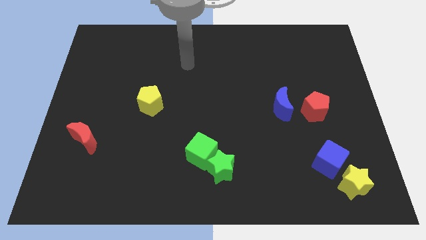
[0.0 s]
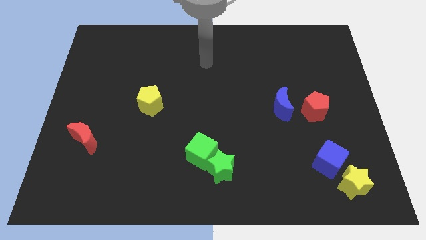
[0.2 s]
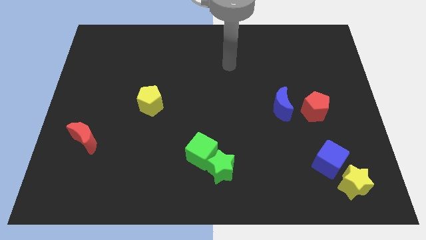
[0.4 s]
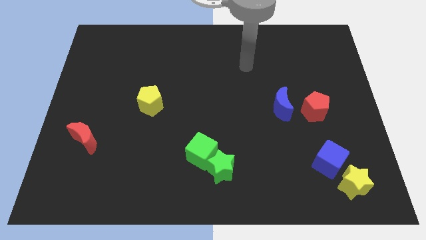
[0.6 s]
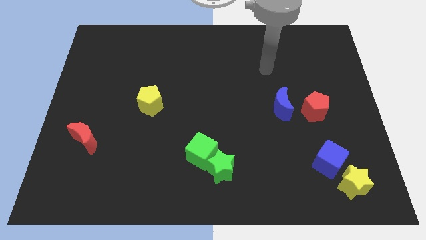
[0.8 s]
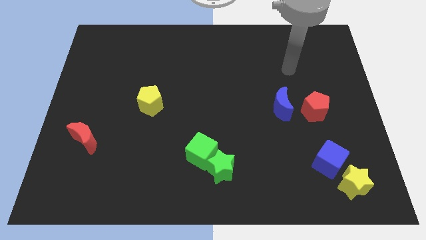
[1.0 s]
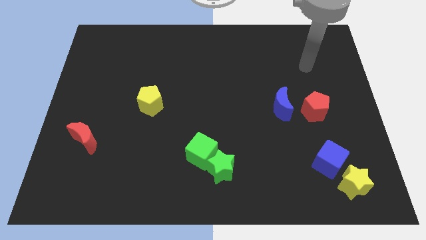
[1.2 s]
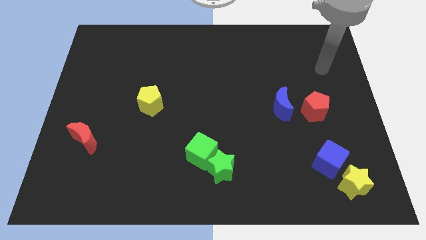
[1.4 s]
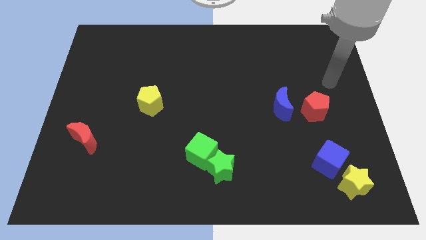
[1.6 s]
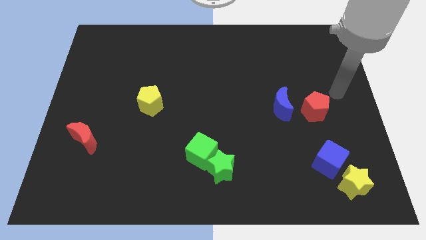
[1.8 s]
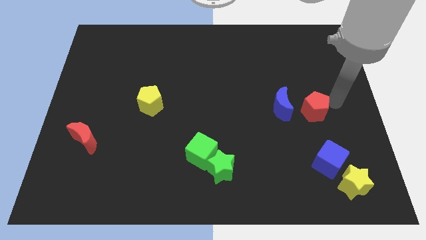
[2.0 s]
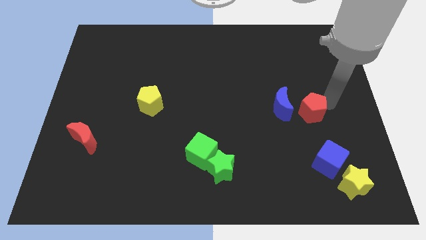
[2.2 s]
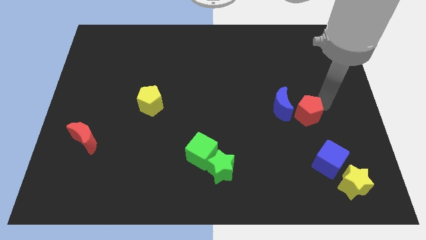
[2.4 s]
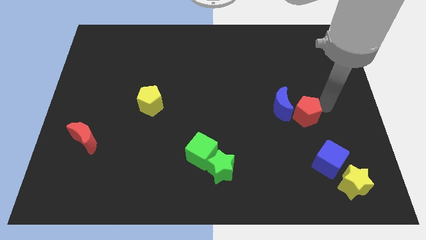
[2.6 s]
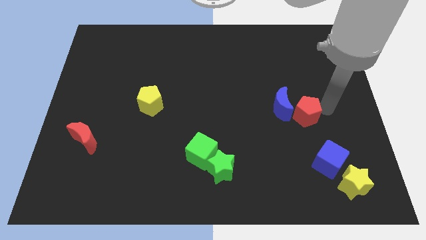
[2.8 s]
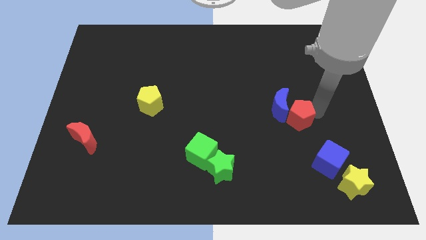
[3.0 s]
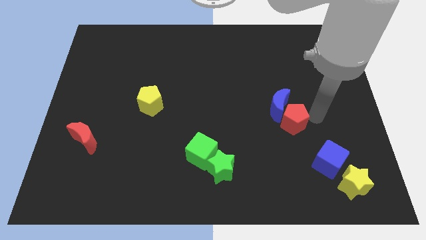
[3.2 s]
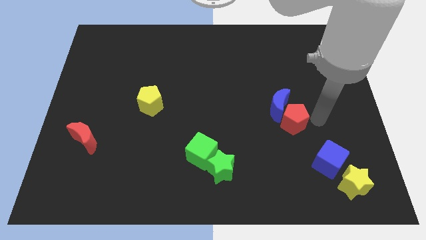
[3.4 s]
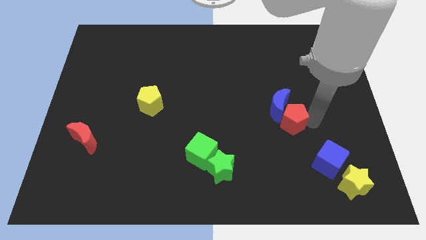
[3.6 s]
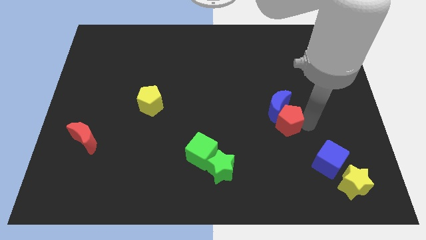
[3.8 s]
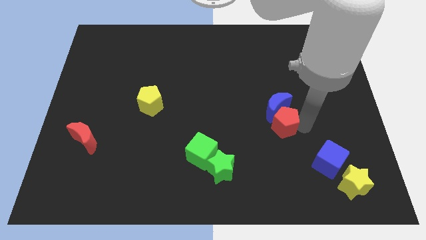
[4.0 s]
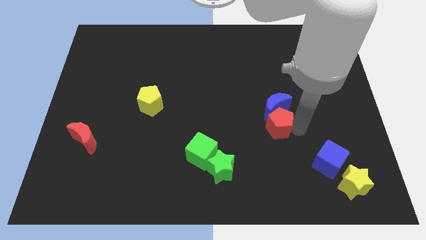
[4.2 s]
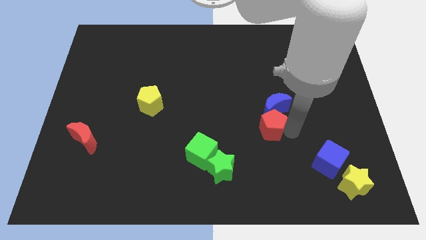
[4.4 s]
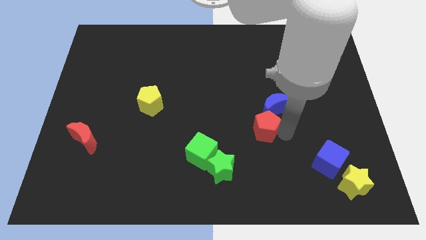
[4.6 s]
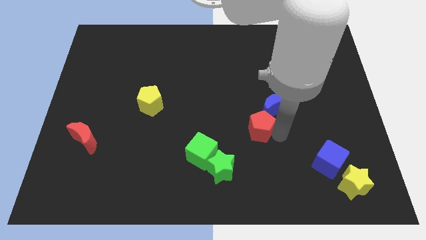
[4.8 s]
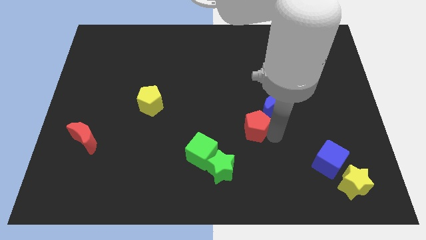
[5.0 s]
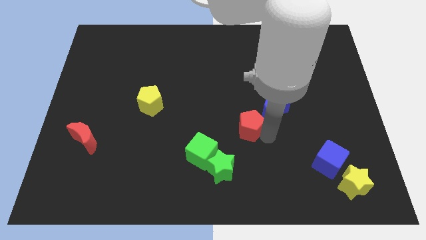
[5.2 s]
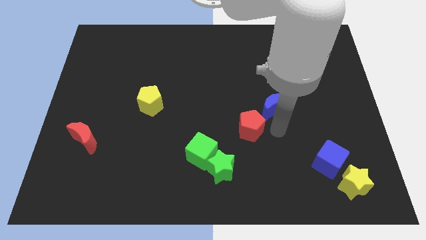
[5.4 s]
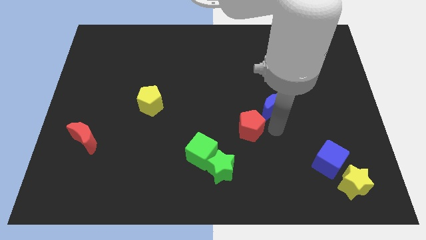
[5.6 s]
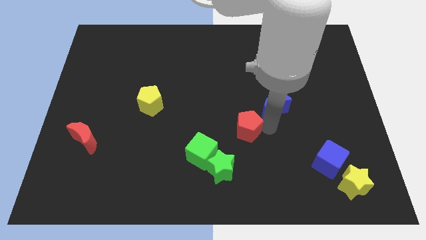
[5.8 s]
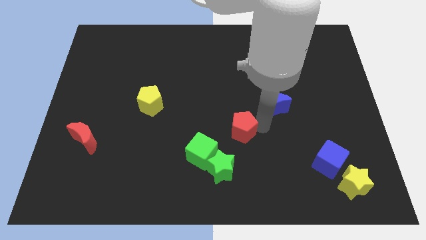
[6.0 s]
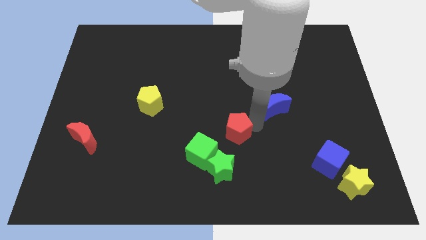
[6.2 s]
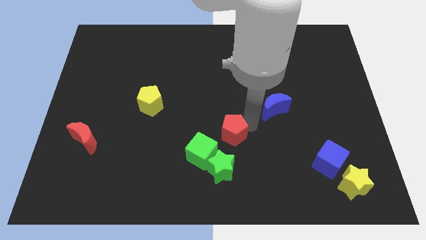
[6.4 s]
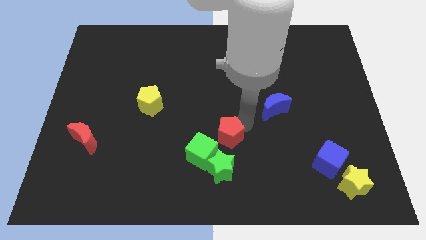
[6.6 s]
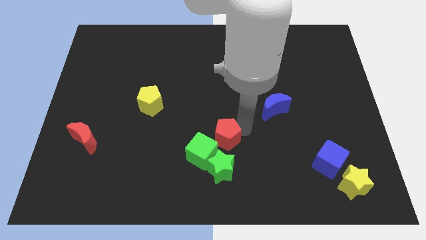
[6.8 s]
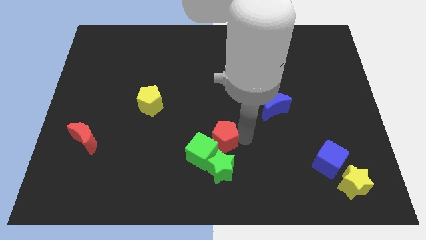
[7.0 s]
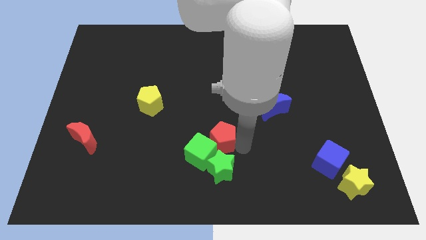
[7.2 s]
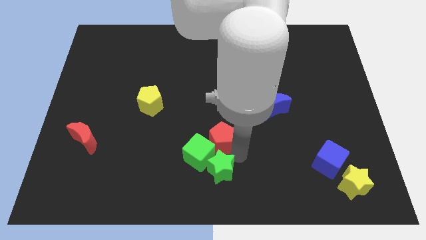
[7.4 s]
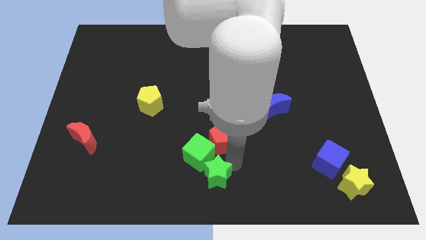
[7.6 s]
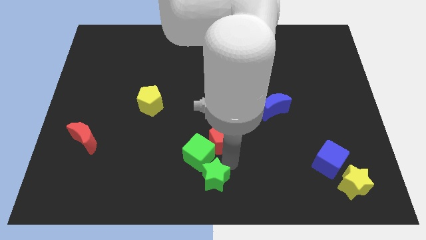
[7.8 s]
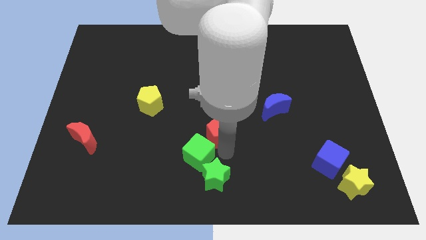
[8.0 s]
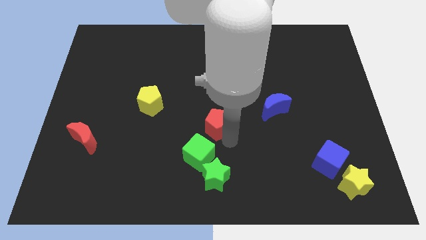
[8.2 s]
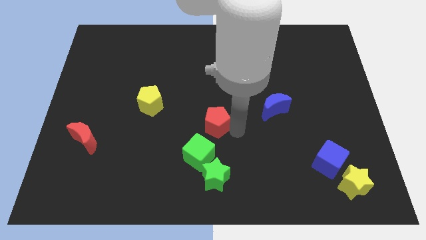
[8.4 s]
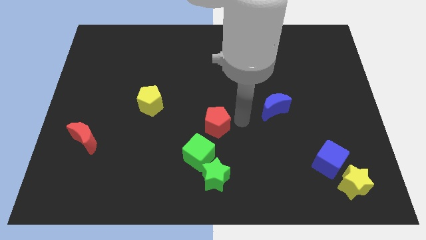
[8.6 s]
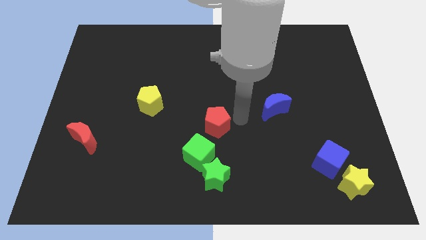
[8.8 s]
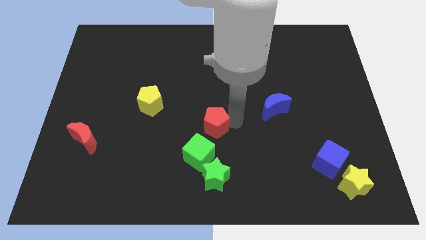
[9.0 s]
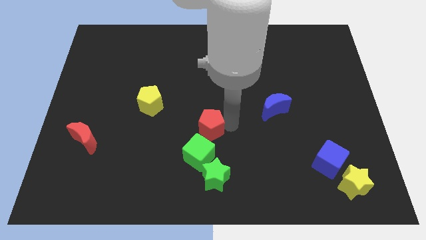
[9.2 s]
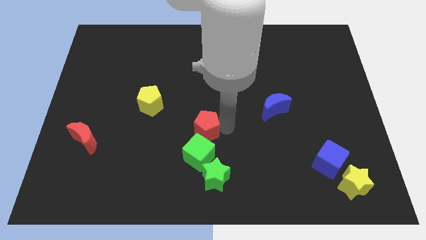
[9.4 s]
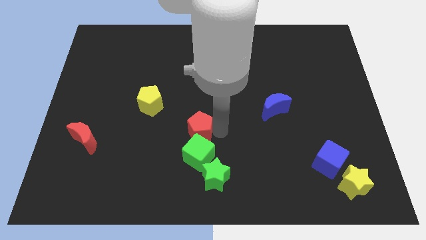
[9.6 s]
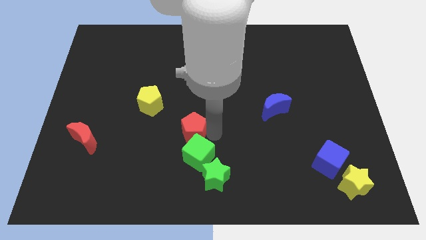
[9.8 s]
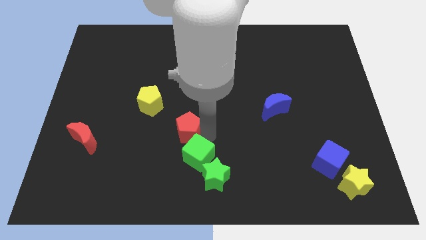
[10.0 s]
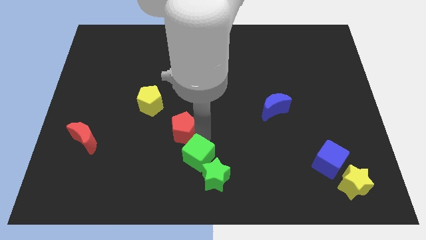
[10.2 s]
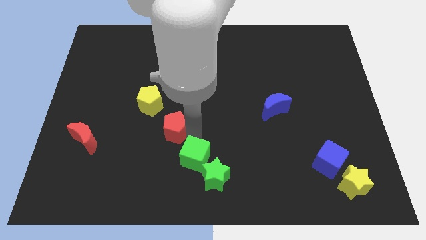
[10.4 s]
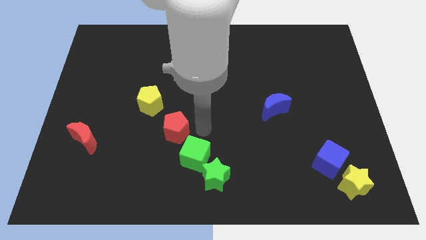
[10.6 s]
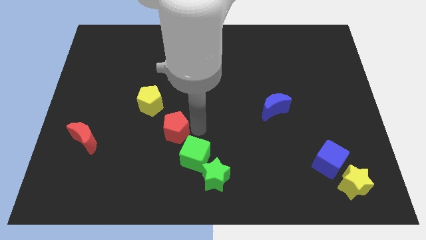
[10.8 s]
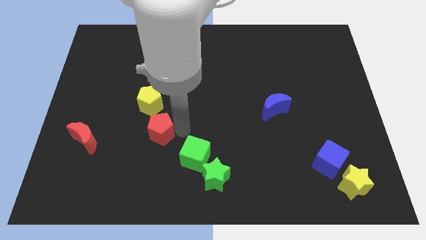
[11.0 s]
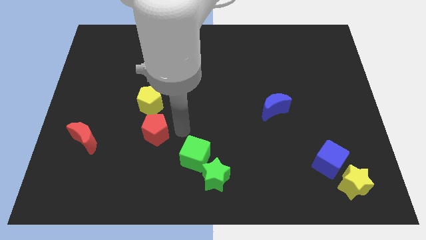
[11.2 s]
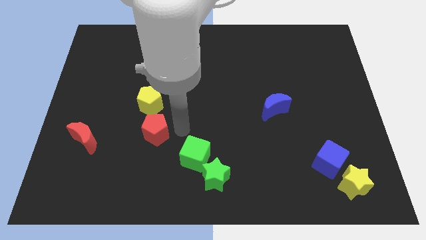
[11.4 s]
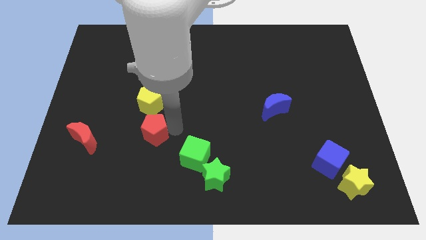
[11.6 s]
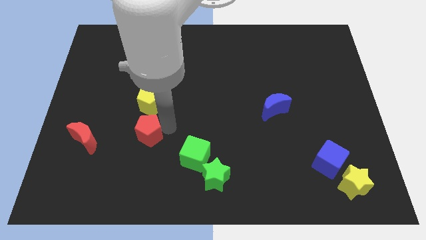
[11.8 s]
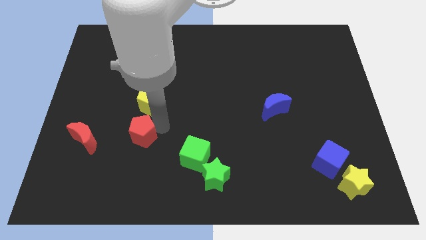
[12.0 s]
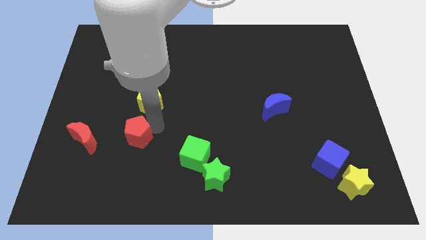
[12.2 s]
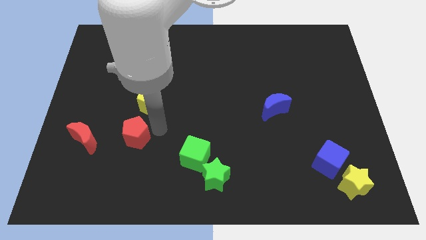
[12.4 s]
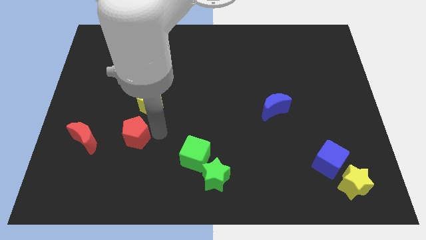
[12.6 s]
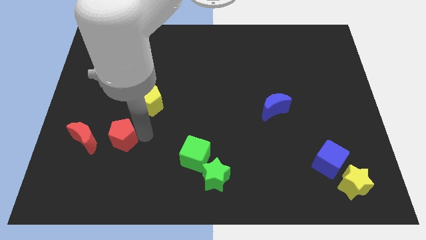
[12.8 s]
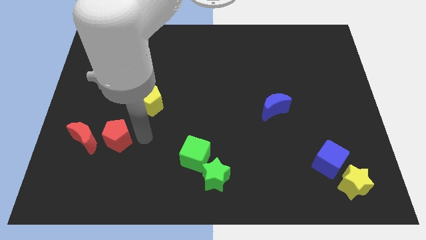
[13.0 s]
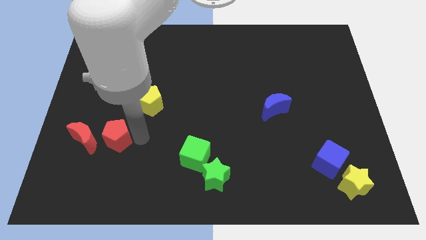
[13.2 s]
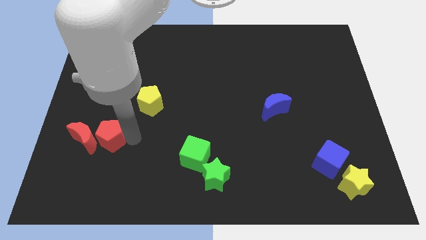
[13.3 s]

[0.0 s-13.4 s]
slide the red pentagon close to the red moon

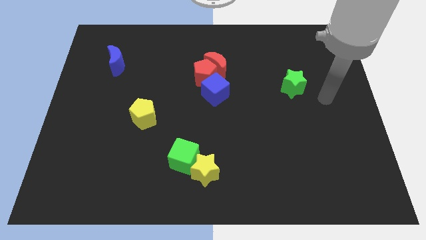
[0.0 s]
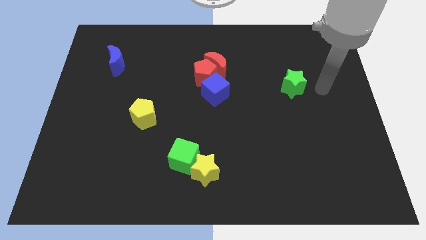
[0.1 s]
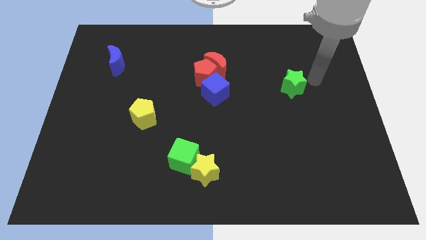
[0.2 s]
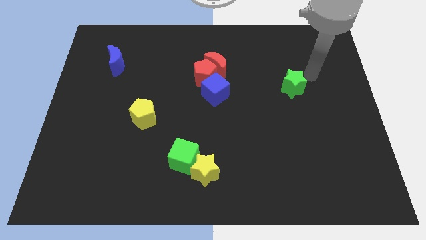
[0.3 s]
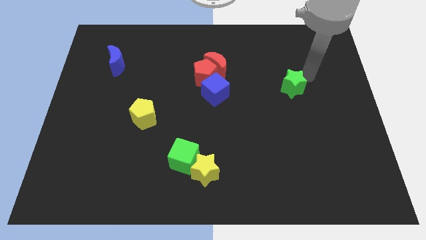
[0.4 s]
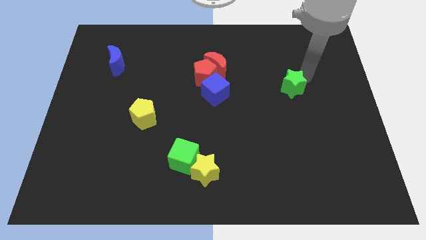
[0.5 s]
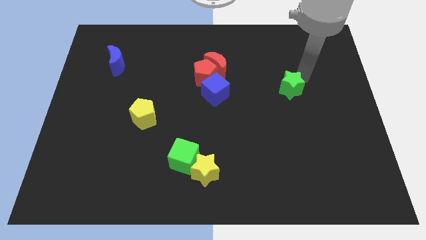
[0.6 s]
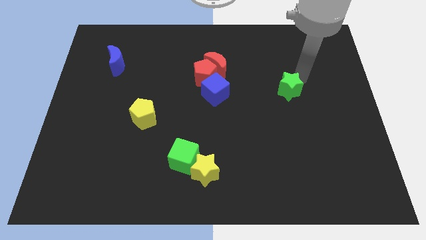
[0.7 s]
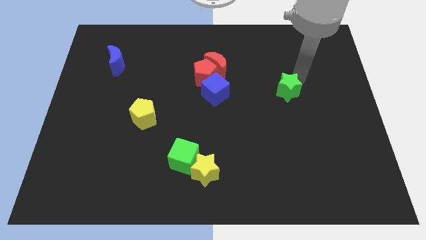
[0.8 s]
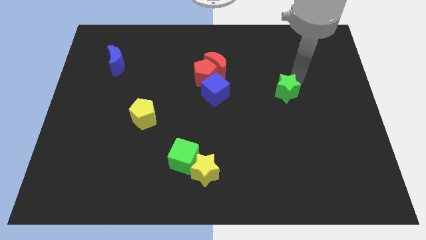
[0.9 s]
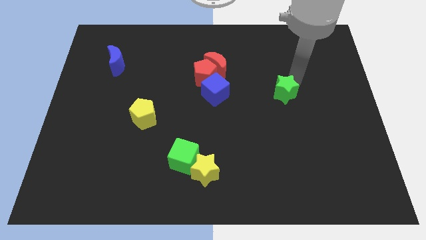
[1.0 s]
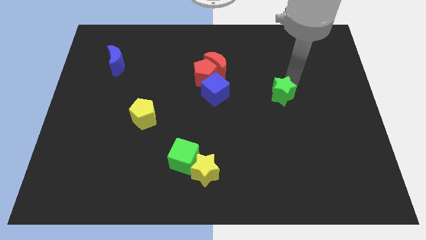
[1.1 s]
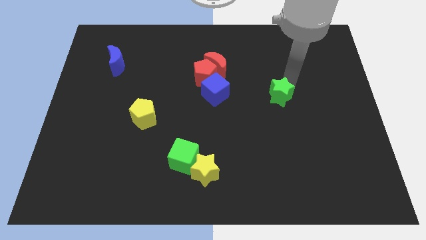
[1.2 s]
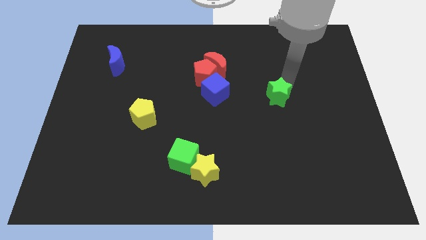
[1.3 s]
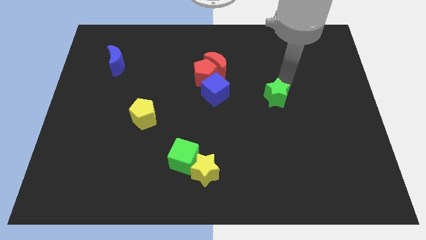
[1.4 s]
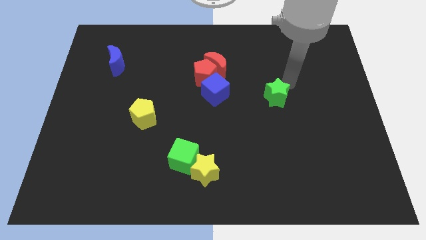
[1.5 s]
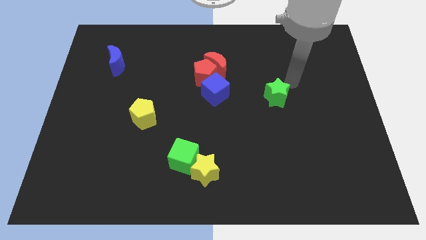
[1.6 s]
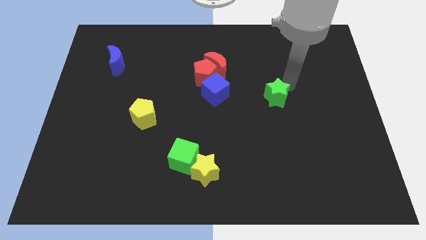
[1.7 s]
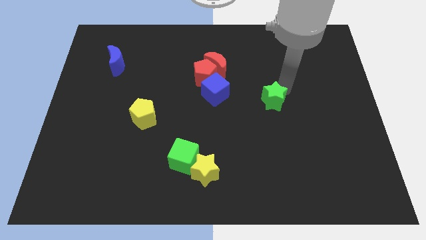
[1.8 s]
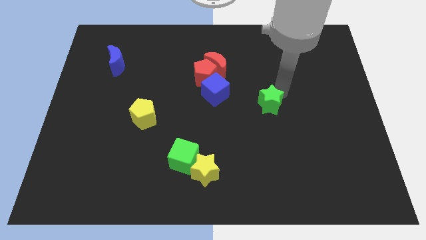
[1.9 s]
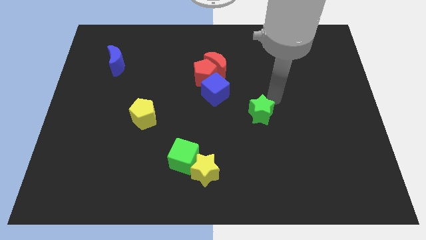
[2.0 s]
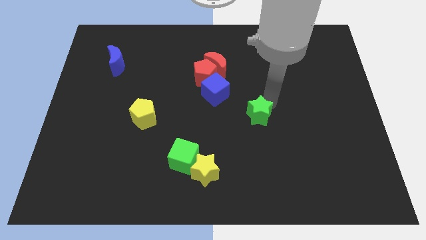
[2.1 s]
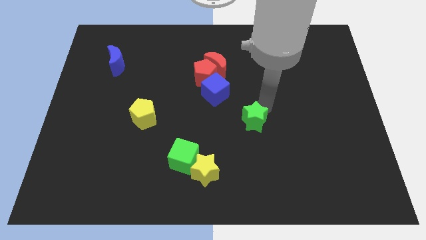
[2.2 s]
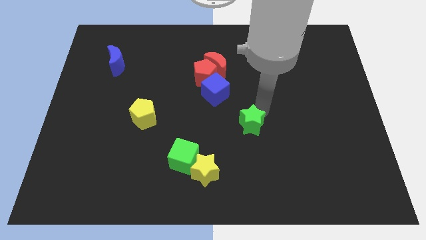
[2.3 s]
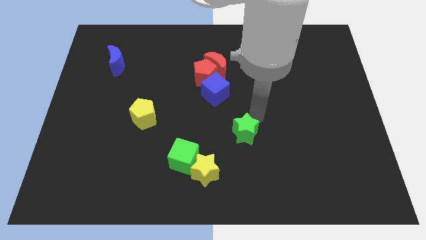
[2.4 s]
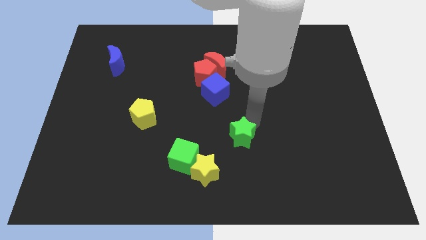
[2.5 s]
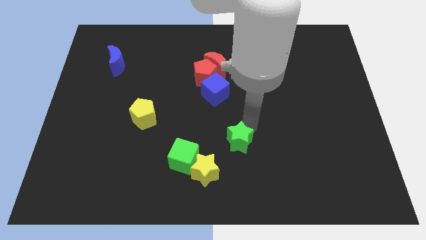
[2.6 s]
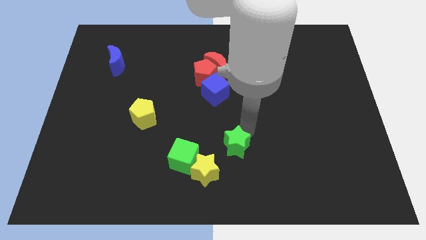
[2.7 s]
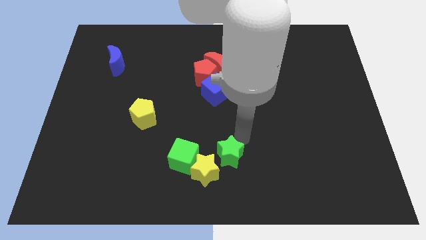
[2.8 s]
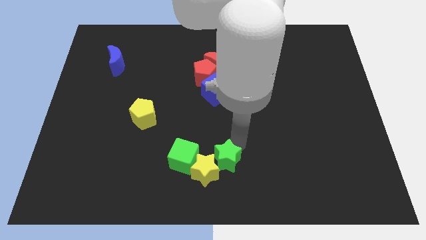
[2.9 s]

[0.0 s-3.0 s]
push the green star to the yellow star
